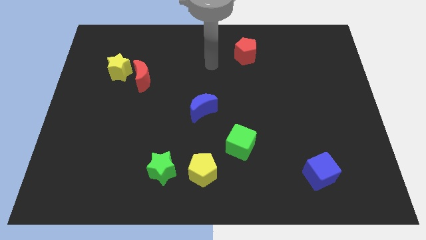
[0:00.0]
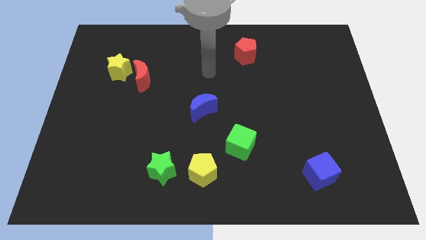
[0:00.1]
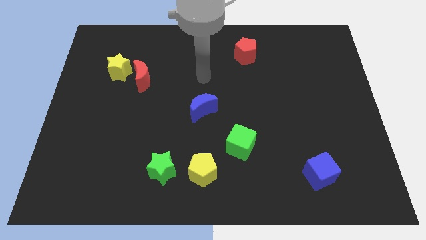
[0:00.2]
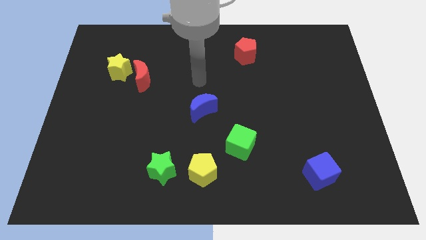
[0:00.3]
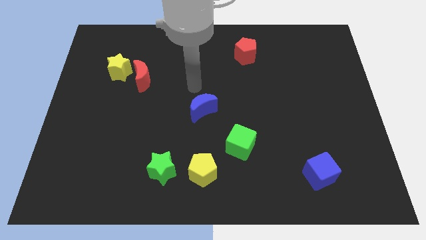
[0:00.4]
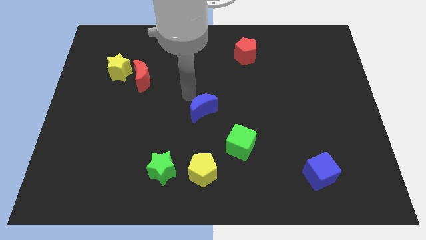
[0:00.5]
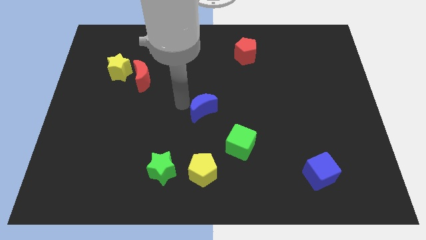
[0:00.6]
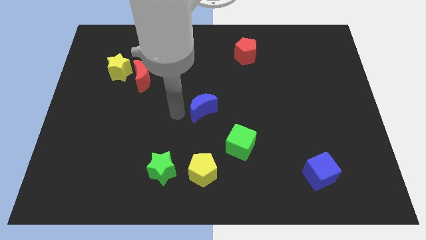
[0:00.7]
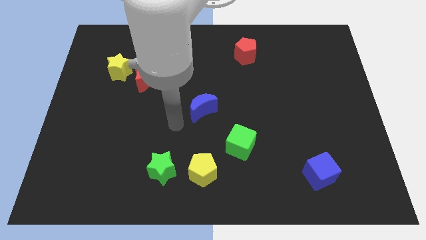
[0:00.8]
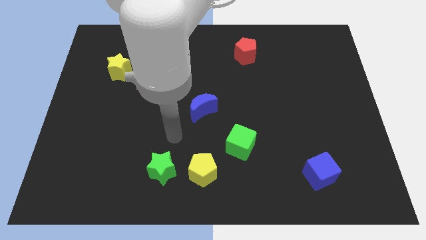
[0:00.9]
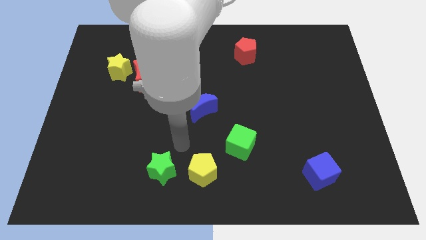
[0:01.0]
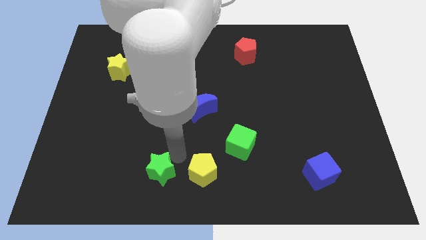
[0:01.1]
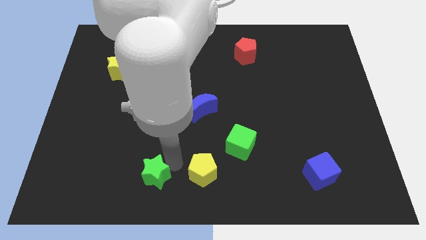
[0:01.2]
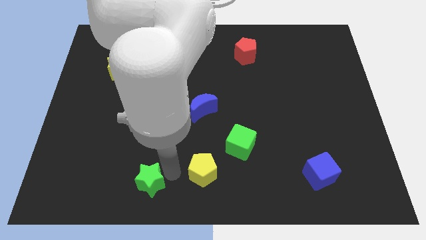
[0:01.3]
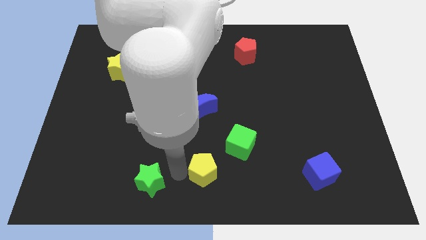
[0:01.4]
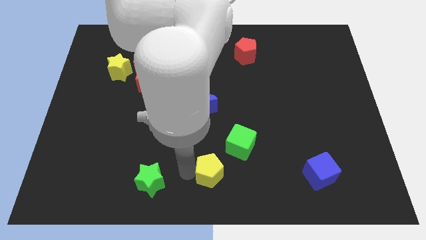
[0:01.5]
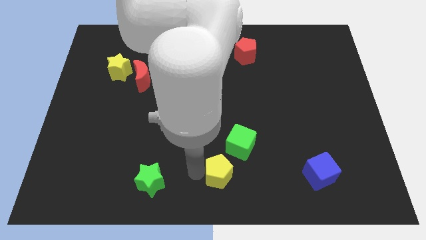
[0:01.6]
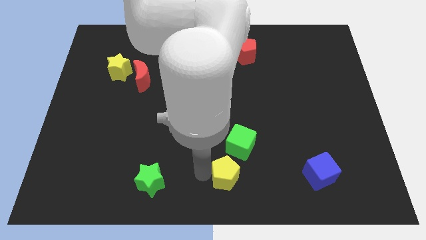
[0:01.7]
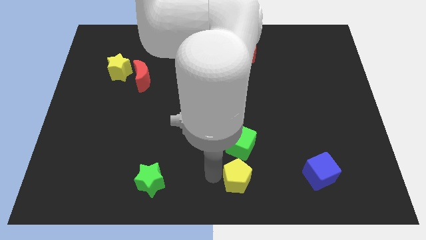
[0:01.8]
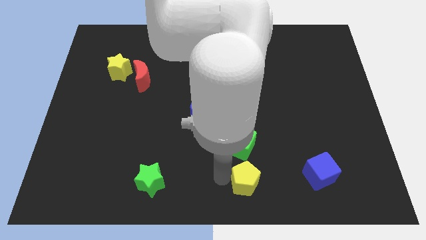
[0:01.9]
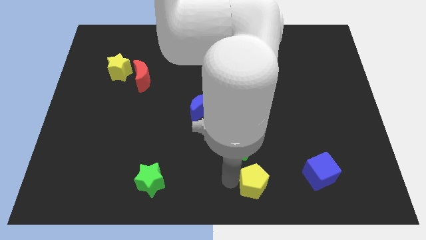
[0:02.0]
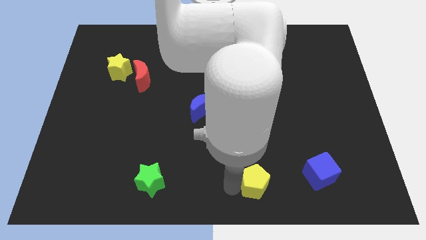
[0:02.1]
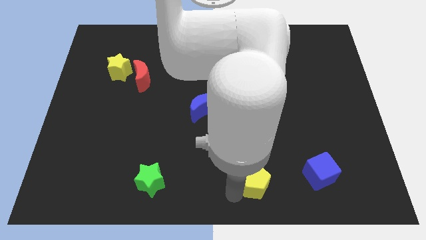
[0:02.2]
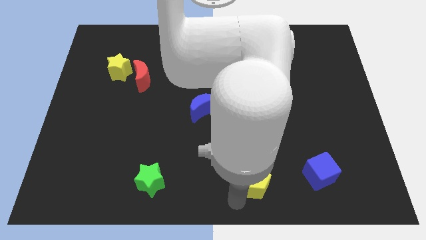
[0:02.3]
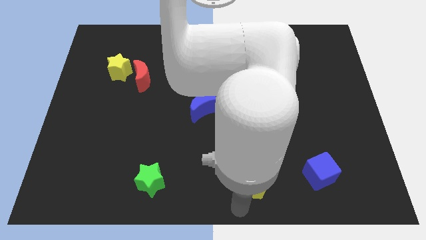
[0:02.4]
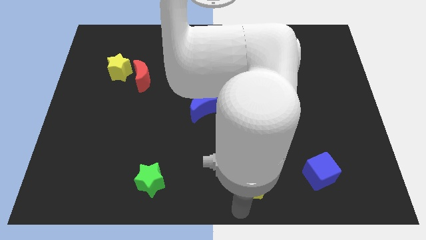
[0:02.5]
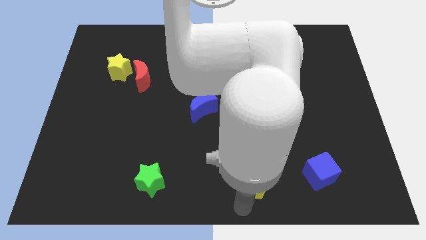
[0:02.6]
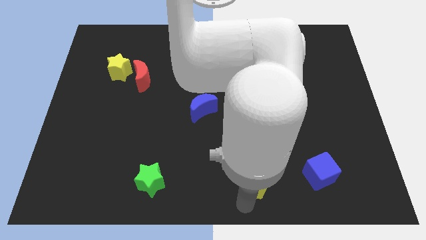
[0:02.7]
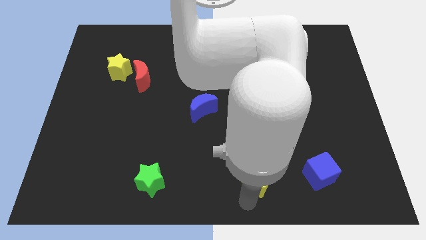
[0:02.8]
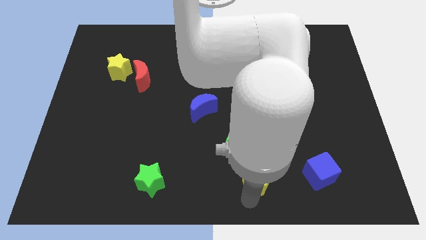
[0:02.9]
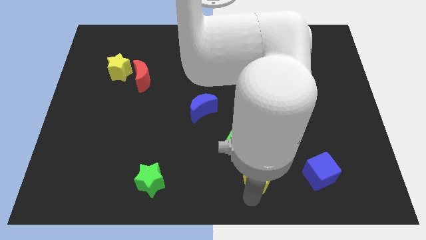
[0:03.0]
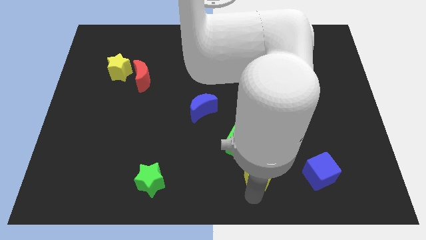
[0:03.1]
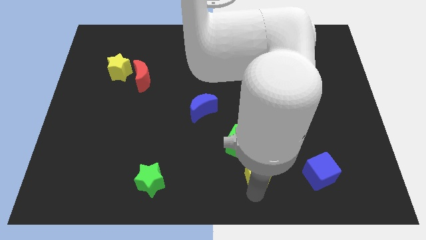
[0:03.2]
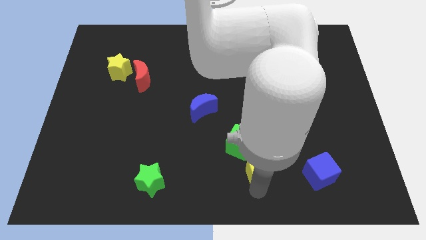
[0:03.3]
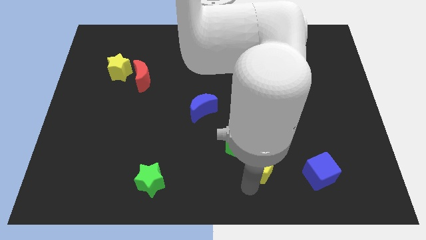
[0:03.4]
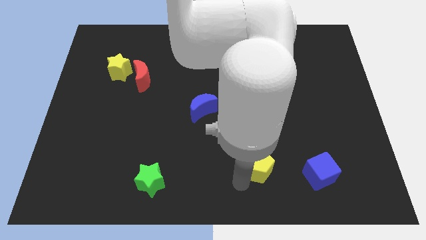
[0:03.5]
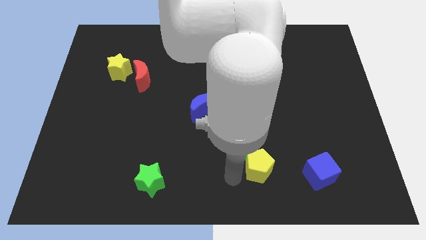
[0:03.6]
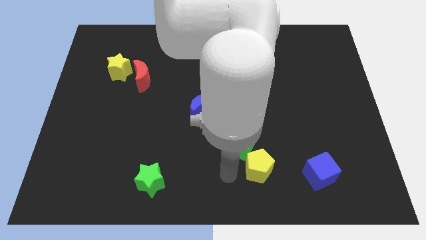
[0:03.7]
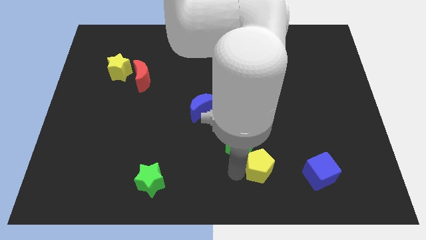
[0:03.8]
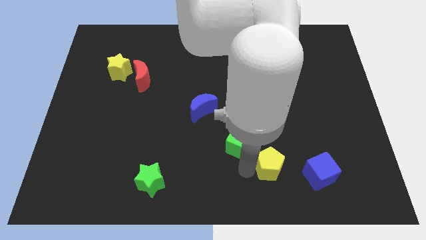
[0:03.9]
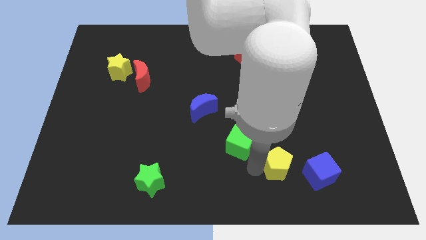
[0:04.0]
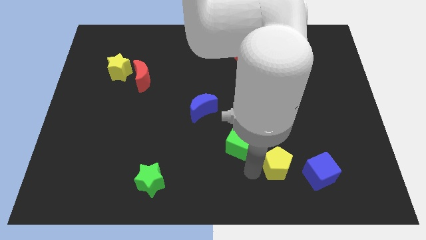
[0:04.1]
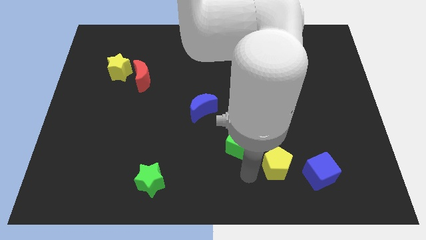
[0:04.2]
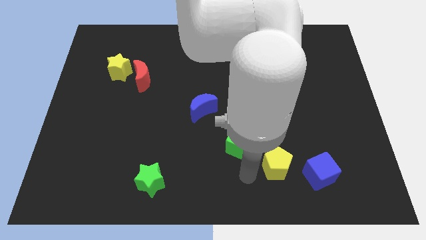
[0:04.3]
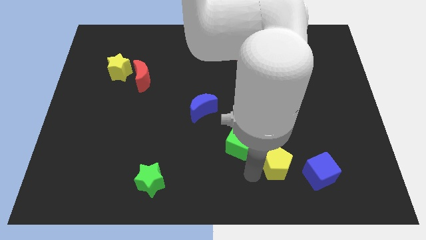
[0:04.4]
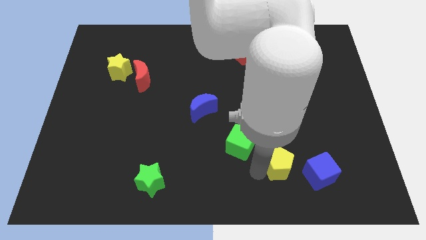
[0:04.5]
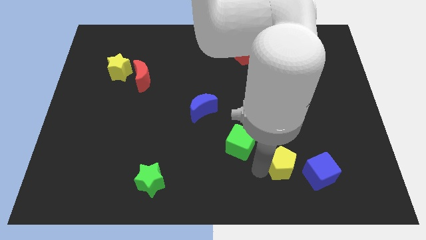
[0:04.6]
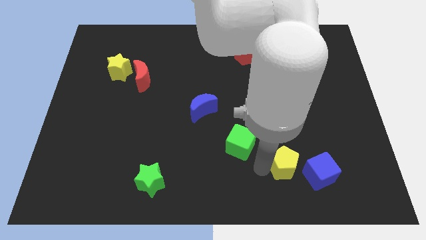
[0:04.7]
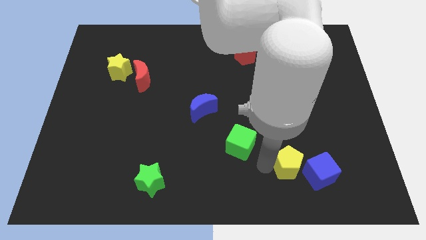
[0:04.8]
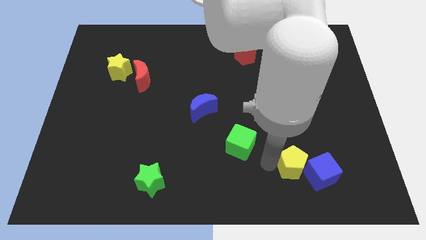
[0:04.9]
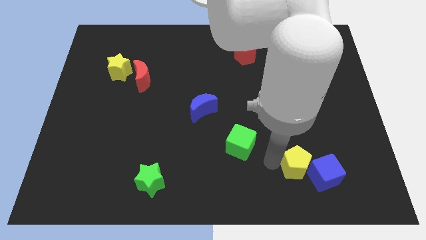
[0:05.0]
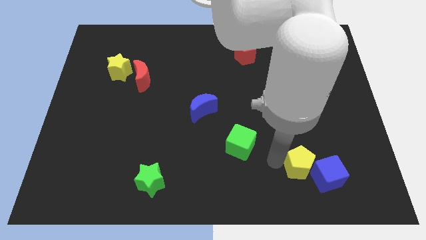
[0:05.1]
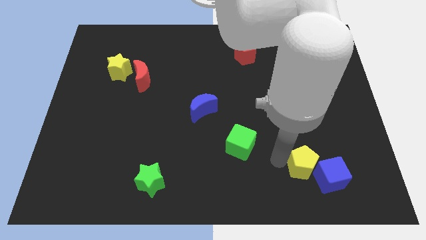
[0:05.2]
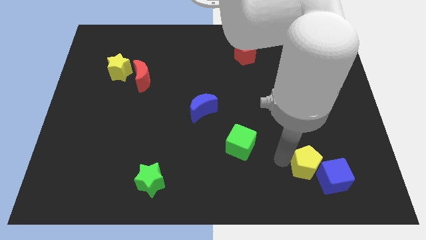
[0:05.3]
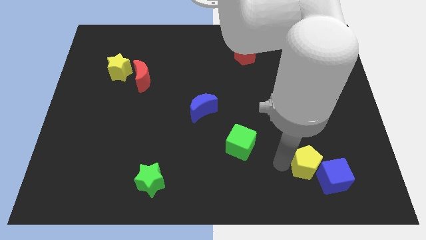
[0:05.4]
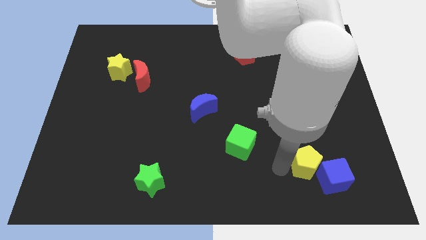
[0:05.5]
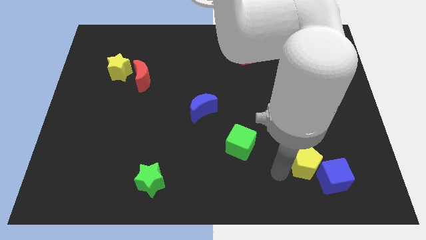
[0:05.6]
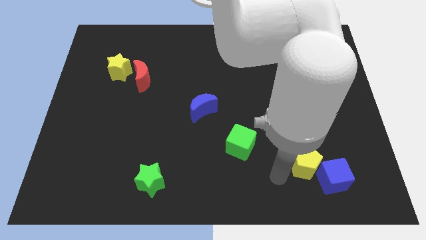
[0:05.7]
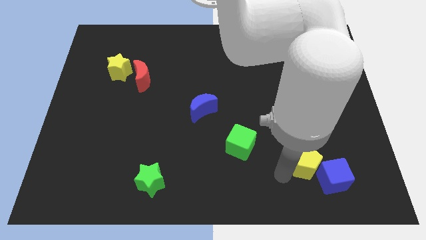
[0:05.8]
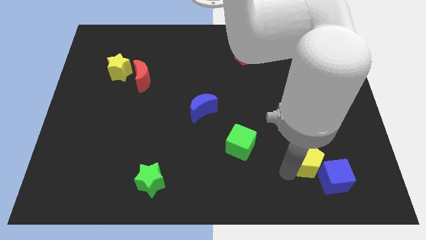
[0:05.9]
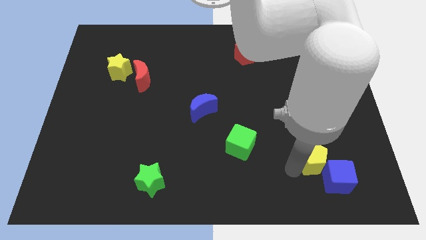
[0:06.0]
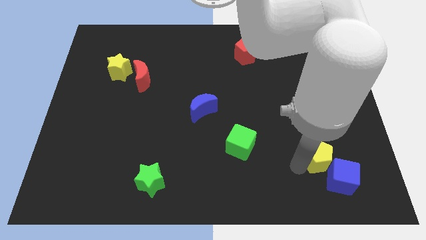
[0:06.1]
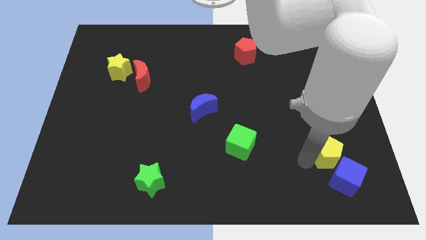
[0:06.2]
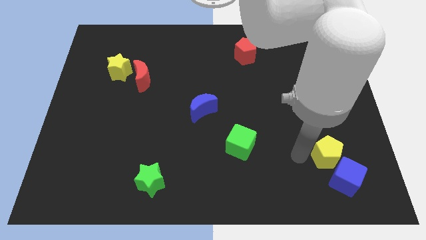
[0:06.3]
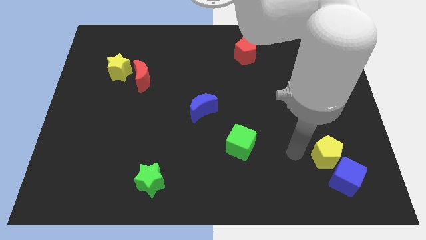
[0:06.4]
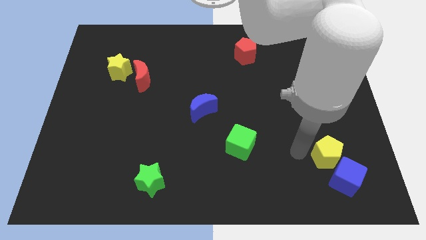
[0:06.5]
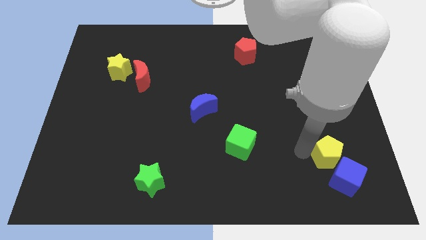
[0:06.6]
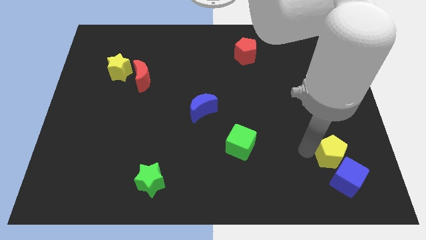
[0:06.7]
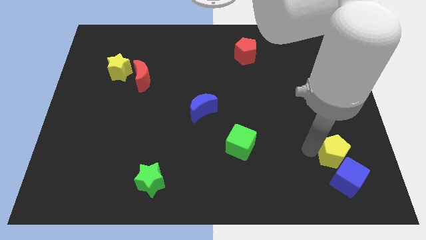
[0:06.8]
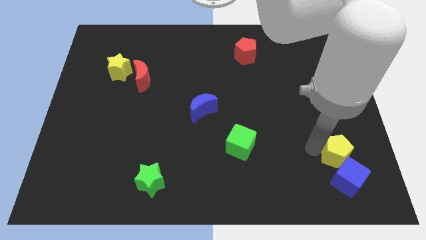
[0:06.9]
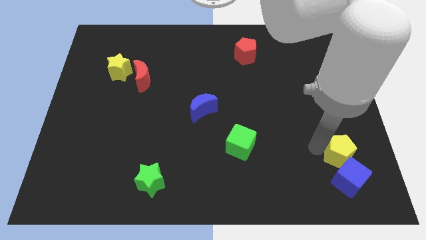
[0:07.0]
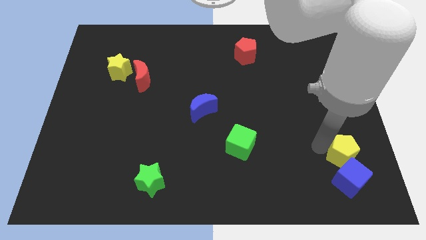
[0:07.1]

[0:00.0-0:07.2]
move the yellow pentagon to the top right side of the blue cube
